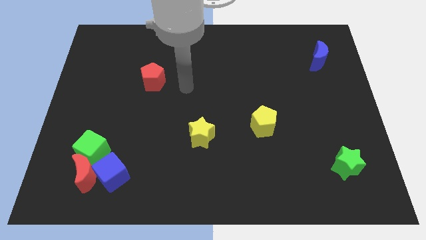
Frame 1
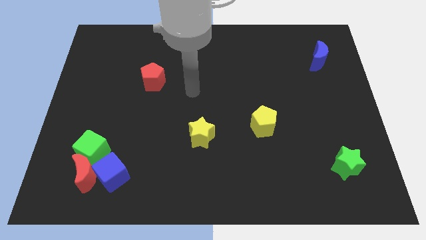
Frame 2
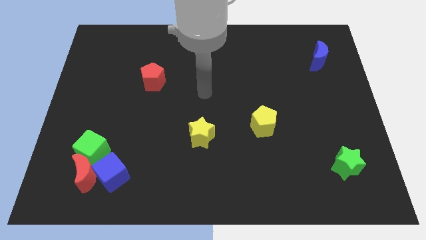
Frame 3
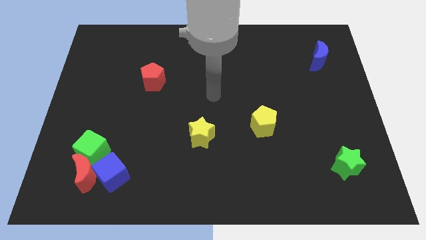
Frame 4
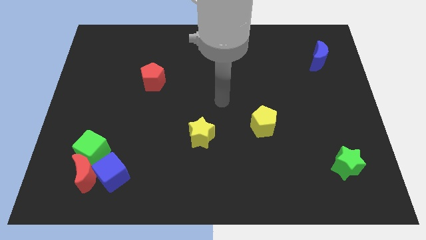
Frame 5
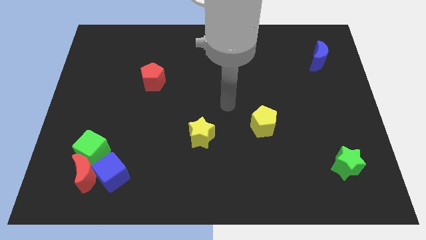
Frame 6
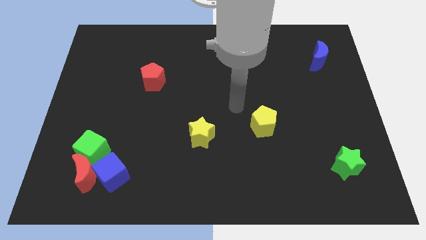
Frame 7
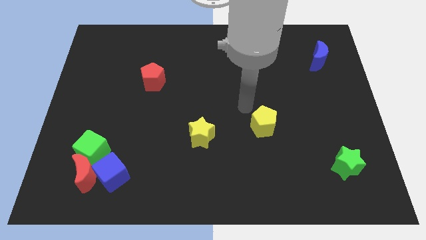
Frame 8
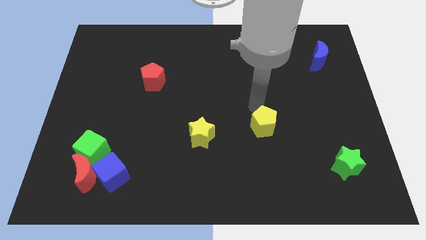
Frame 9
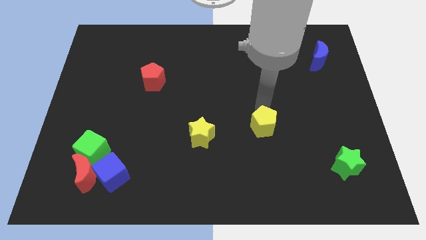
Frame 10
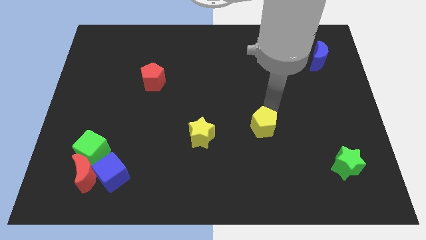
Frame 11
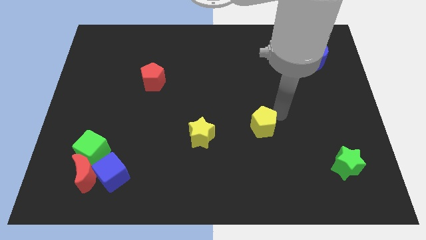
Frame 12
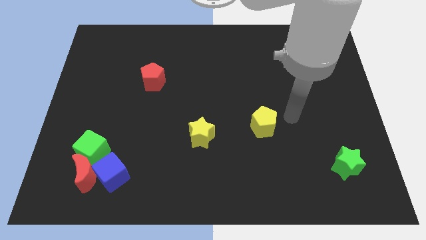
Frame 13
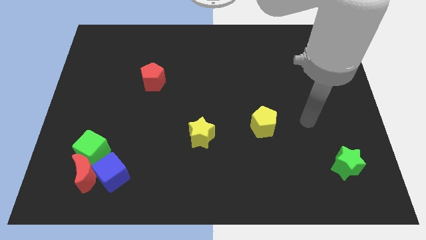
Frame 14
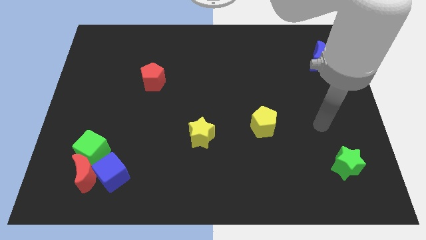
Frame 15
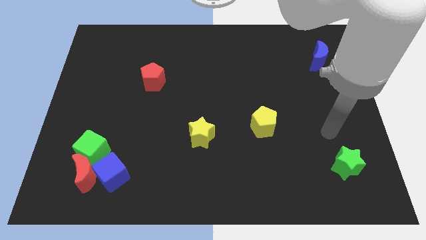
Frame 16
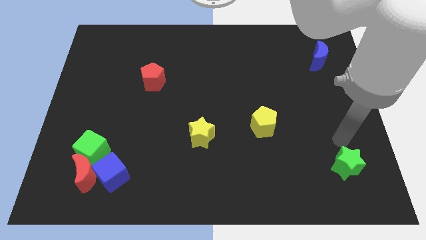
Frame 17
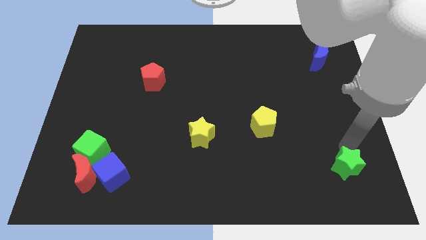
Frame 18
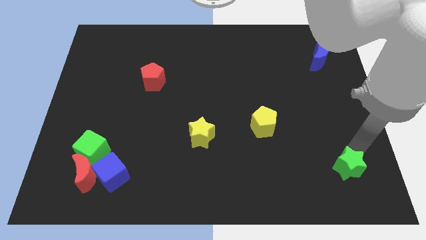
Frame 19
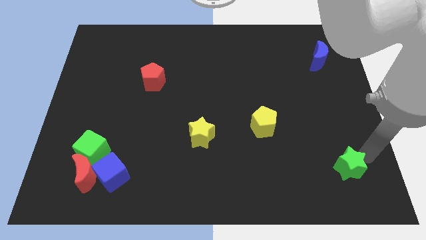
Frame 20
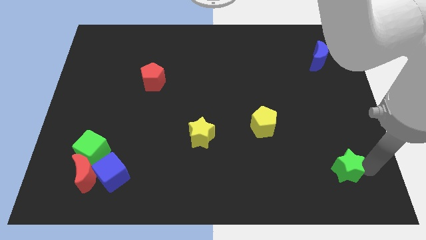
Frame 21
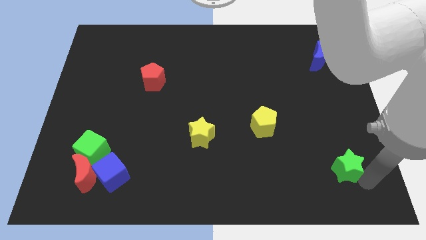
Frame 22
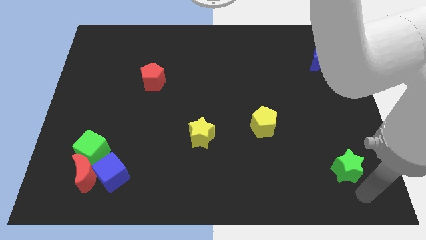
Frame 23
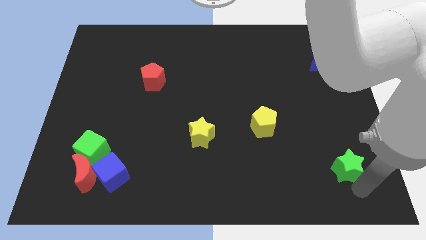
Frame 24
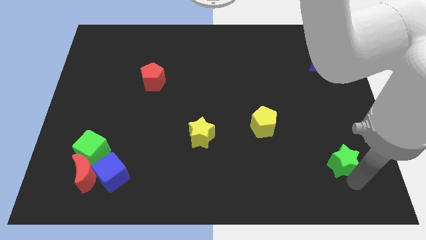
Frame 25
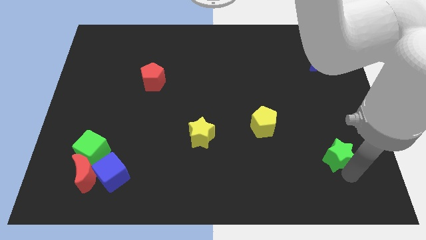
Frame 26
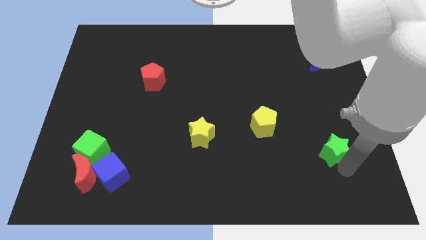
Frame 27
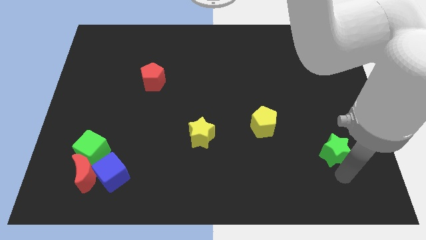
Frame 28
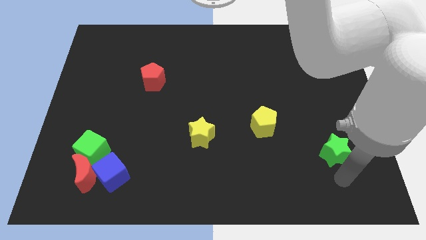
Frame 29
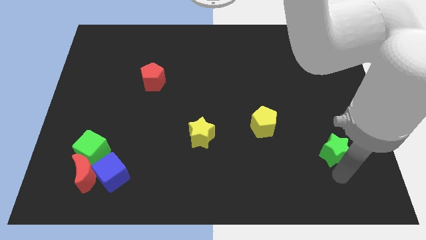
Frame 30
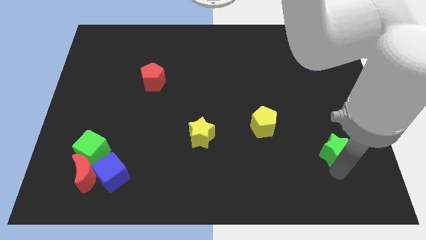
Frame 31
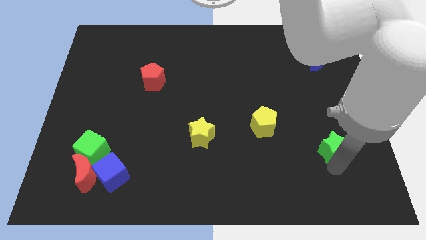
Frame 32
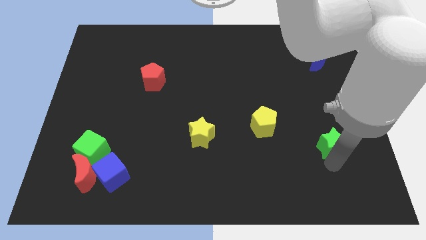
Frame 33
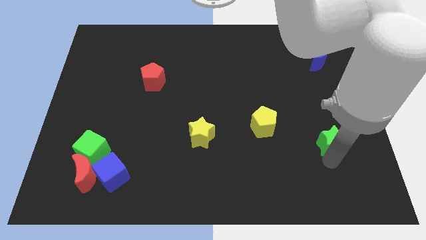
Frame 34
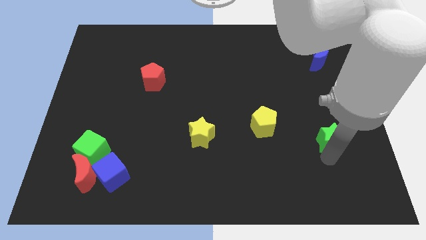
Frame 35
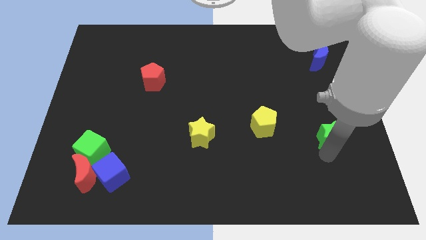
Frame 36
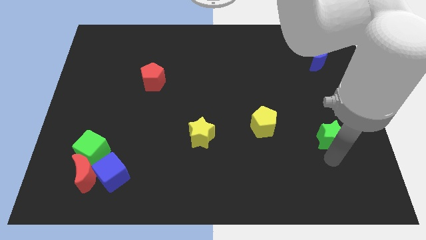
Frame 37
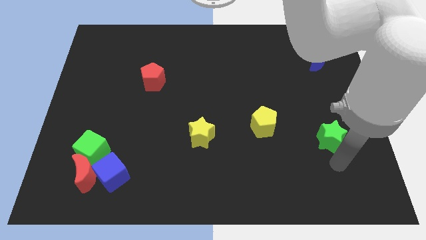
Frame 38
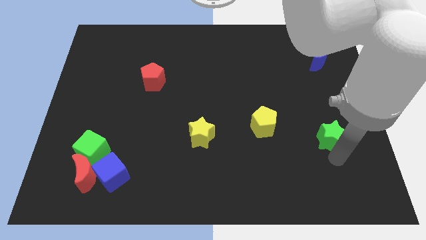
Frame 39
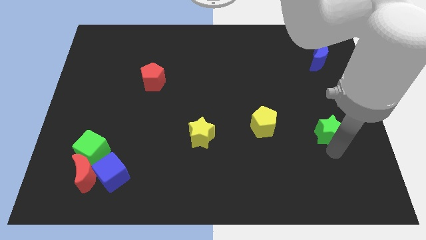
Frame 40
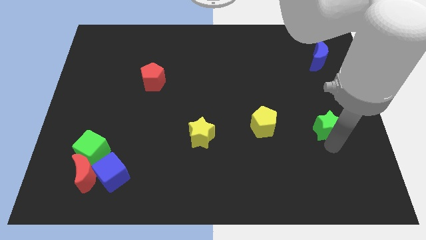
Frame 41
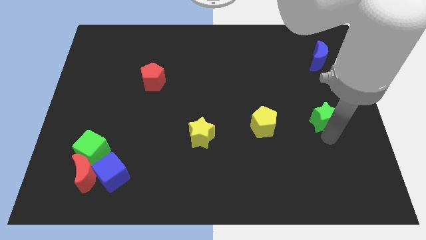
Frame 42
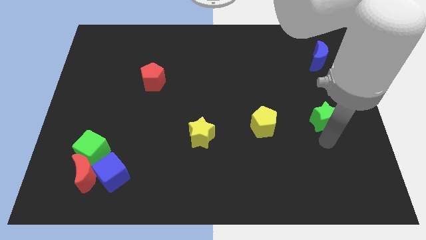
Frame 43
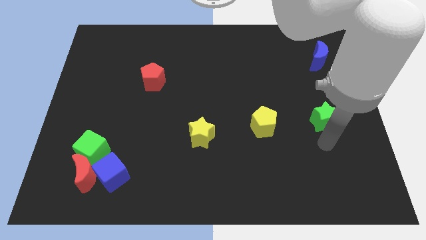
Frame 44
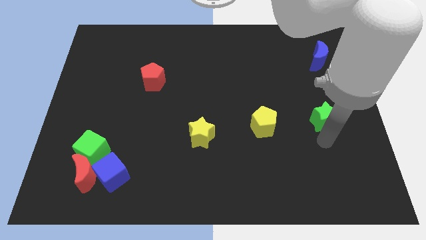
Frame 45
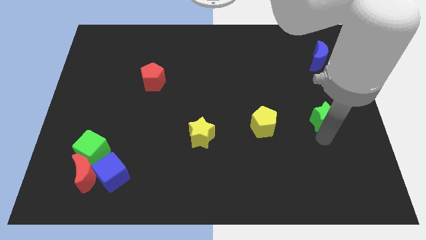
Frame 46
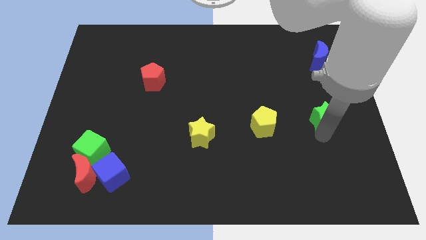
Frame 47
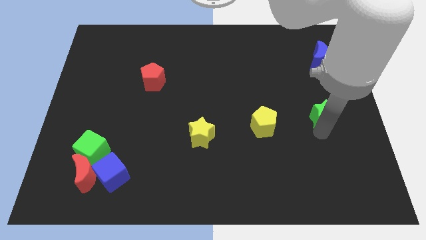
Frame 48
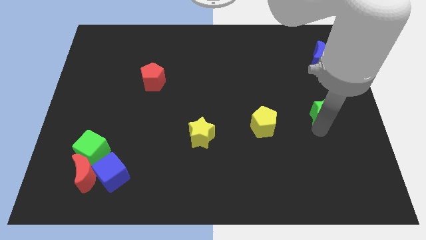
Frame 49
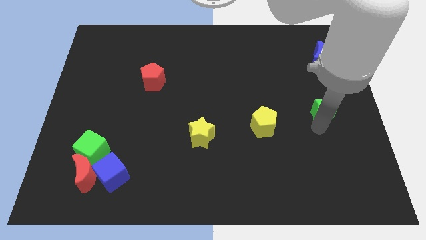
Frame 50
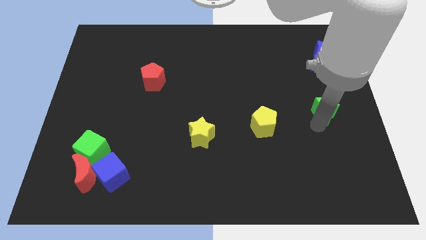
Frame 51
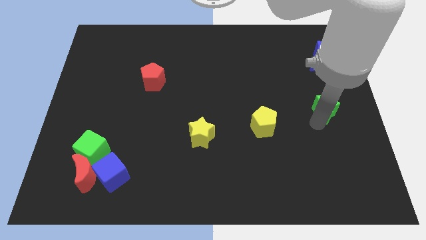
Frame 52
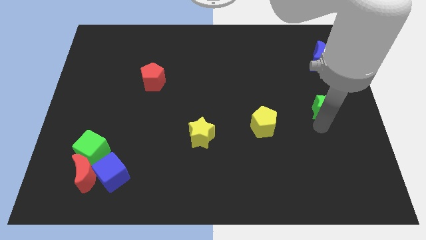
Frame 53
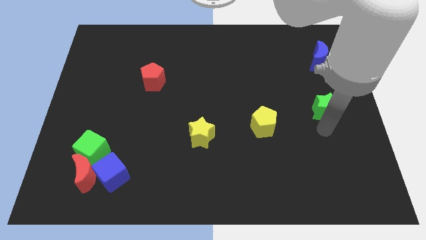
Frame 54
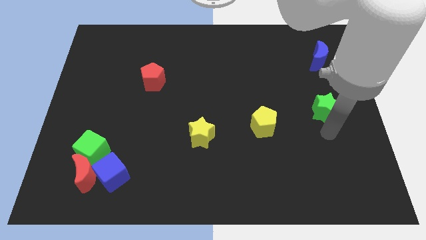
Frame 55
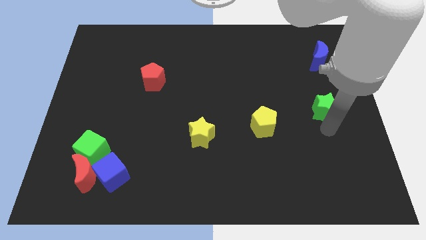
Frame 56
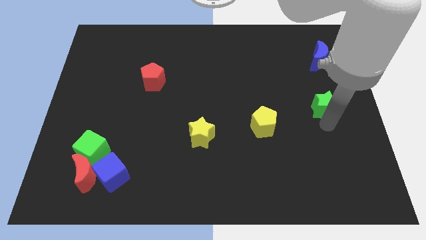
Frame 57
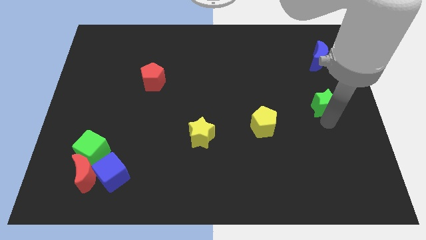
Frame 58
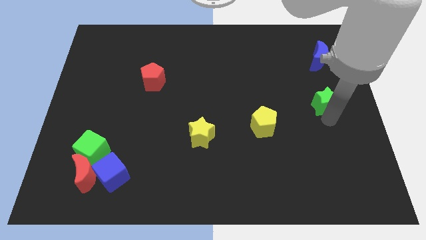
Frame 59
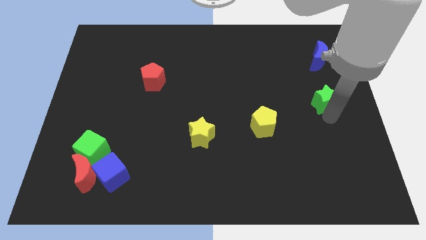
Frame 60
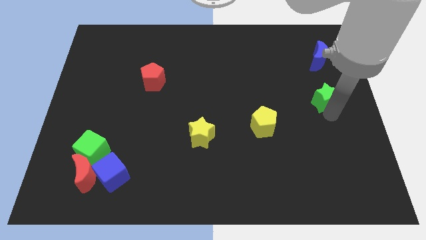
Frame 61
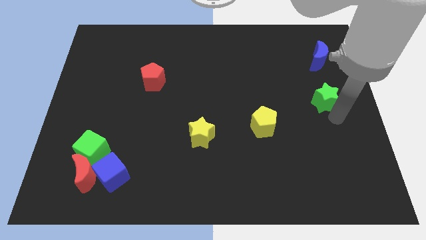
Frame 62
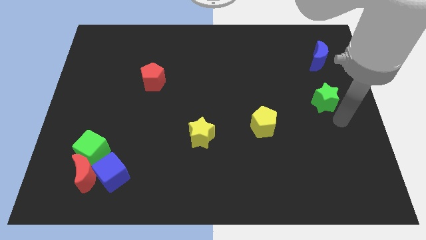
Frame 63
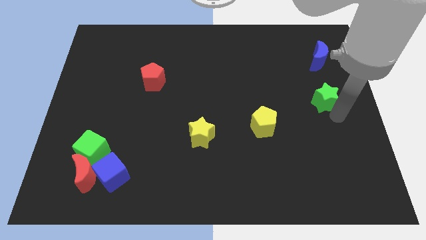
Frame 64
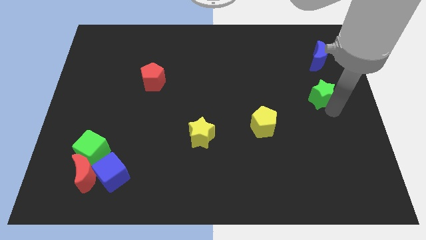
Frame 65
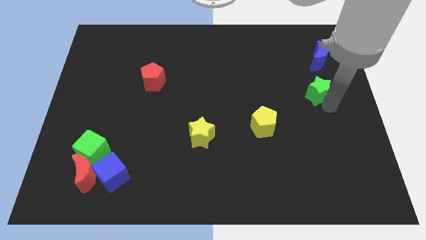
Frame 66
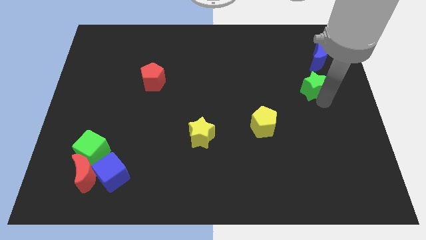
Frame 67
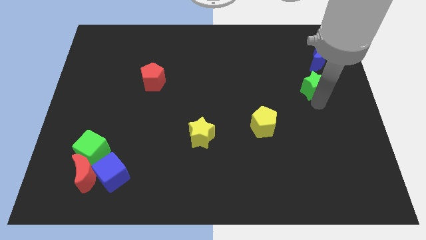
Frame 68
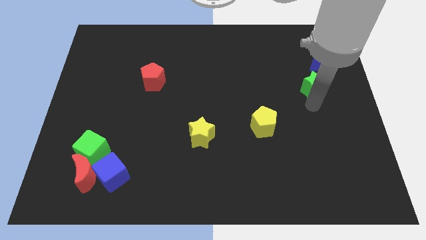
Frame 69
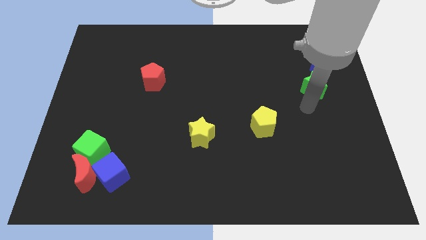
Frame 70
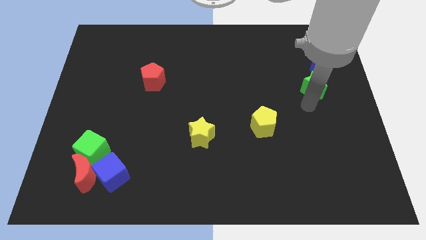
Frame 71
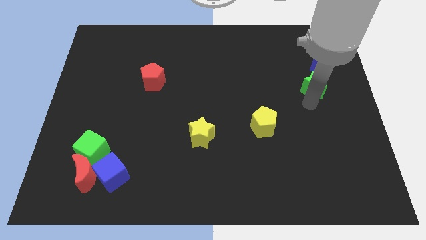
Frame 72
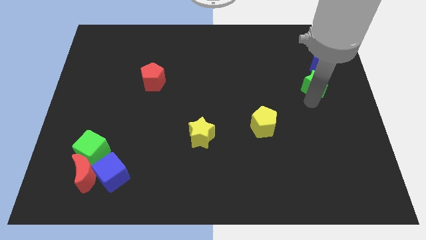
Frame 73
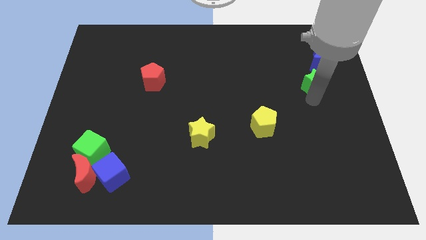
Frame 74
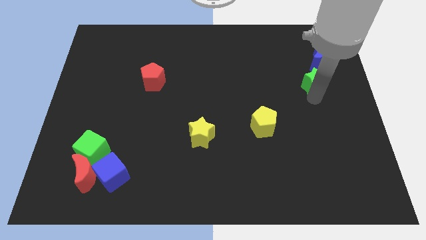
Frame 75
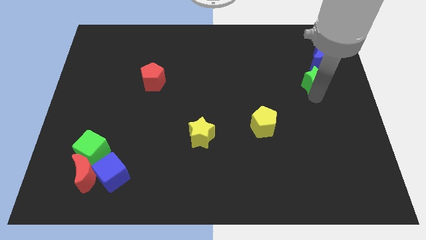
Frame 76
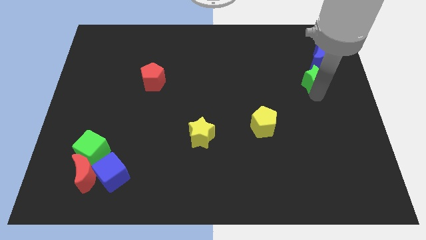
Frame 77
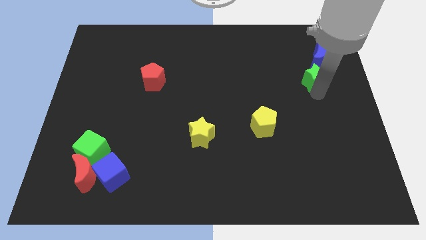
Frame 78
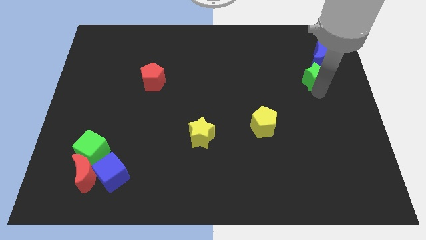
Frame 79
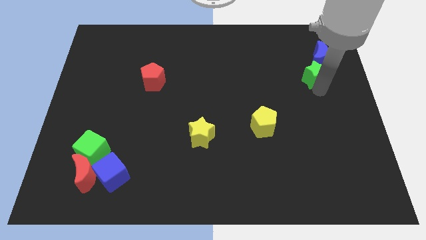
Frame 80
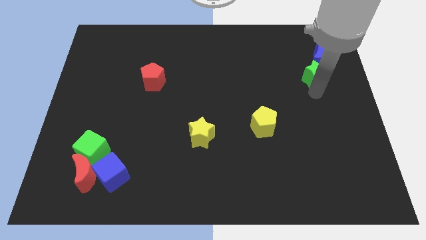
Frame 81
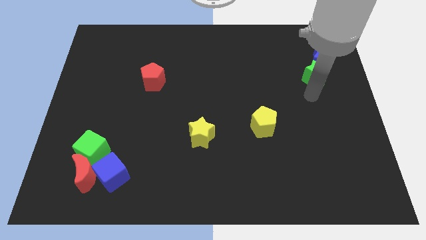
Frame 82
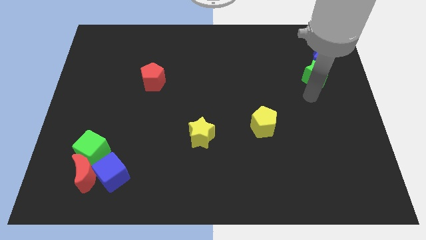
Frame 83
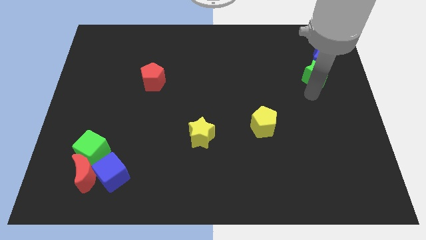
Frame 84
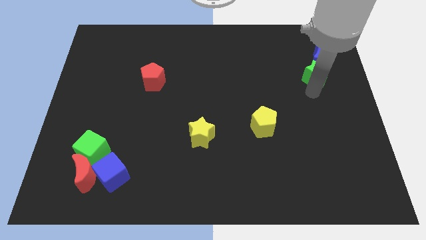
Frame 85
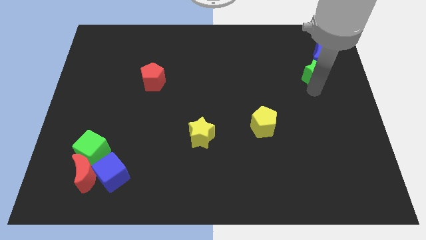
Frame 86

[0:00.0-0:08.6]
slide the green star close to the blue moon
